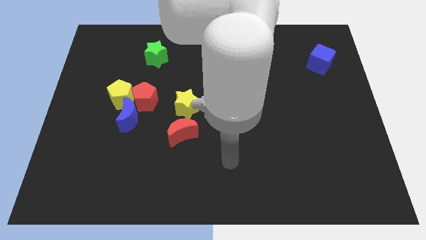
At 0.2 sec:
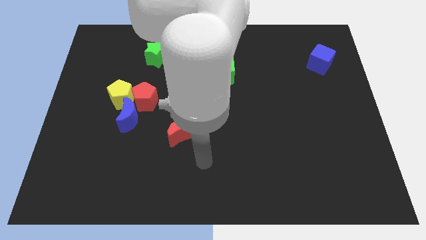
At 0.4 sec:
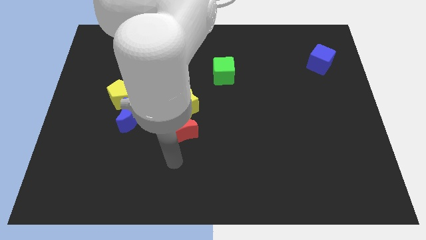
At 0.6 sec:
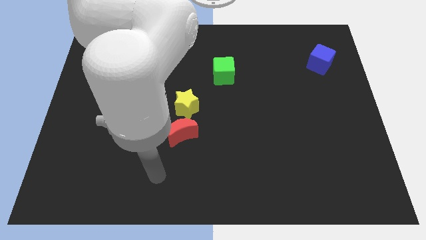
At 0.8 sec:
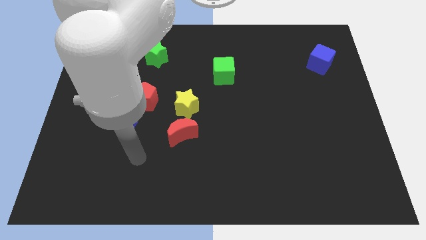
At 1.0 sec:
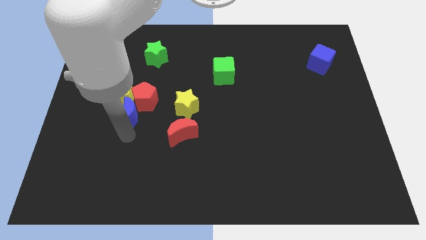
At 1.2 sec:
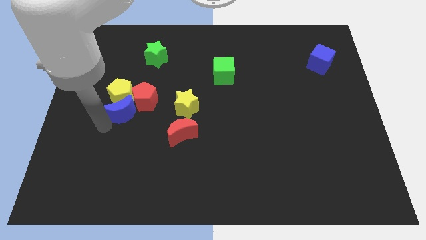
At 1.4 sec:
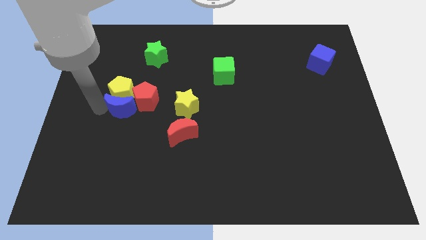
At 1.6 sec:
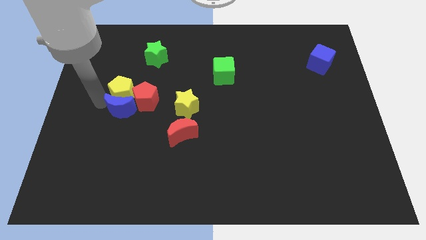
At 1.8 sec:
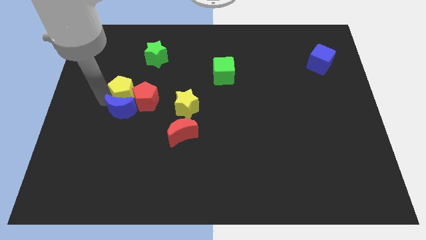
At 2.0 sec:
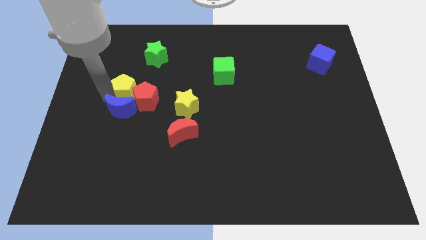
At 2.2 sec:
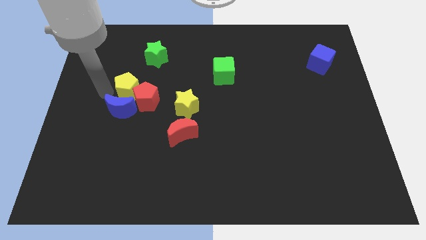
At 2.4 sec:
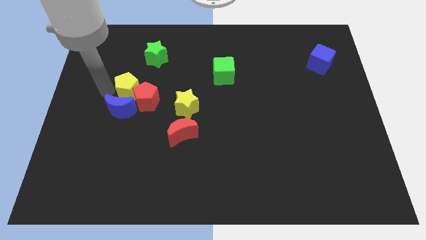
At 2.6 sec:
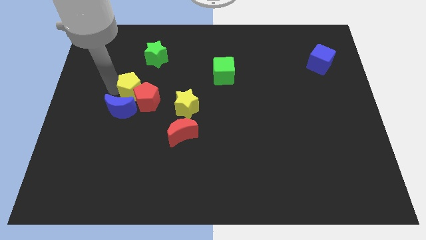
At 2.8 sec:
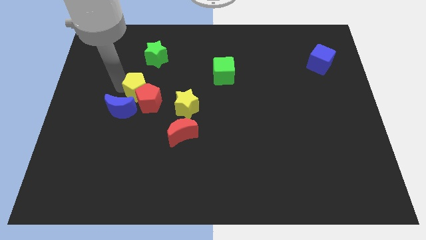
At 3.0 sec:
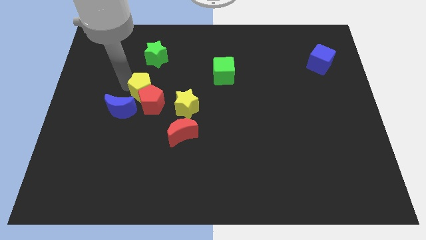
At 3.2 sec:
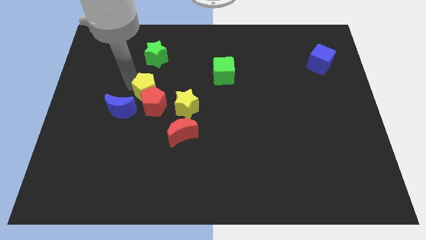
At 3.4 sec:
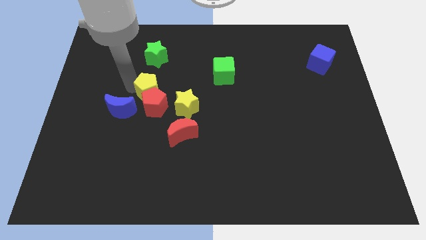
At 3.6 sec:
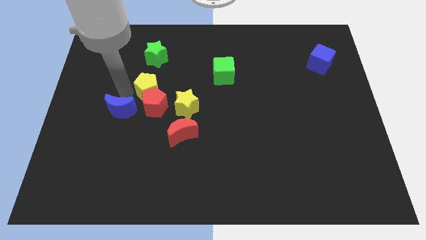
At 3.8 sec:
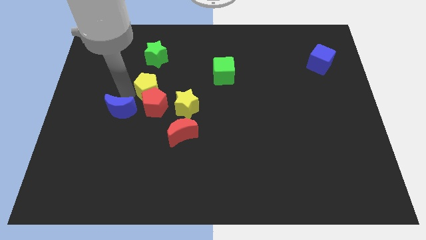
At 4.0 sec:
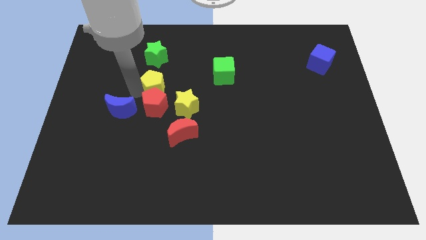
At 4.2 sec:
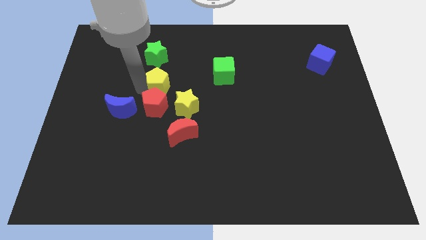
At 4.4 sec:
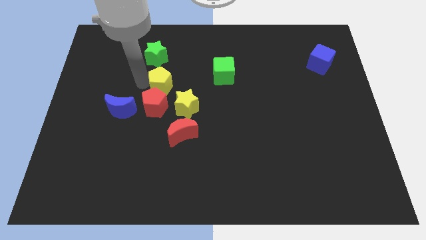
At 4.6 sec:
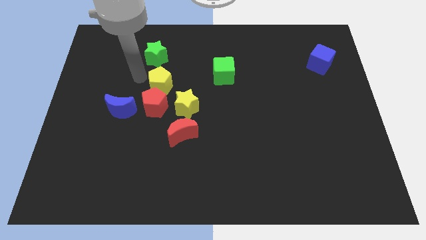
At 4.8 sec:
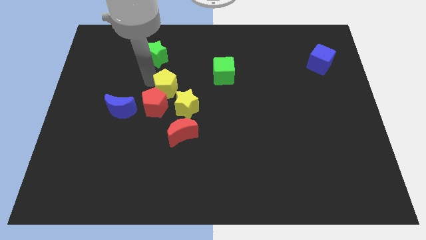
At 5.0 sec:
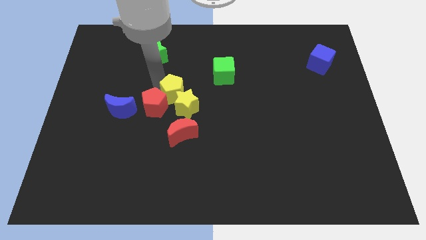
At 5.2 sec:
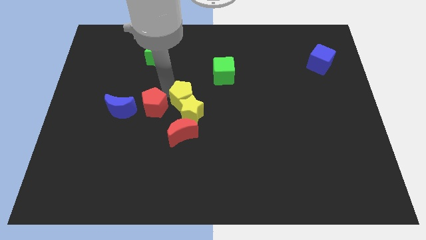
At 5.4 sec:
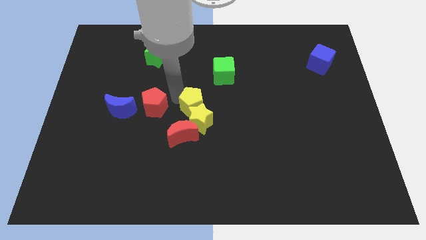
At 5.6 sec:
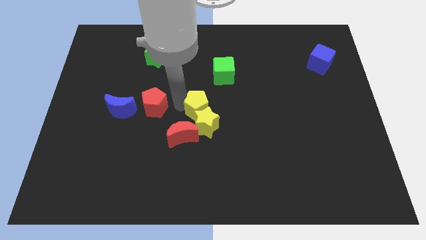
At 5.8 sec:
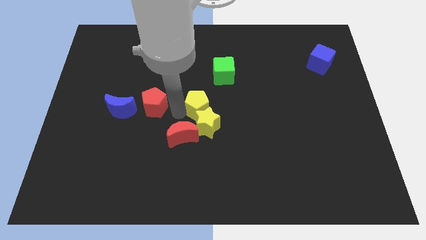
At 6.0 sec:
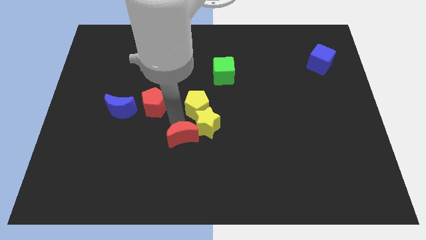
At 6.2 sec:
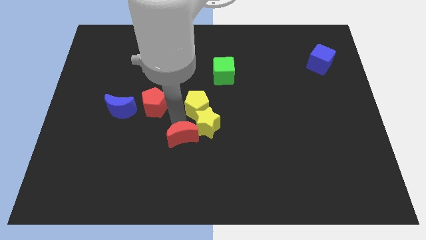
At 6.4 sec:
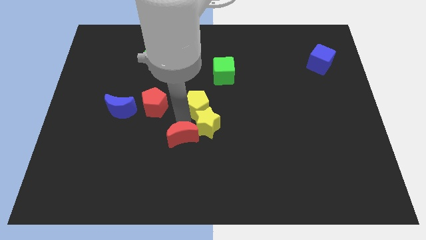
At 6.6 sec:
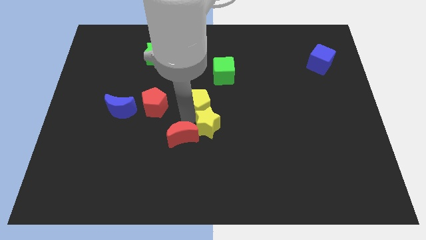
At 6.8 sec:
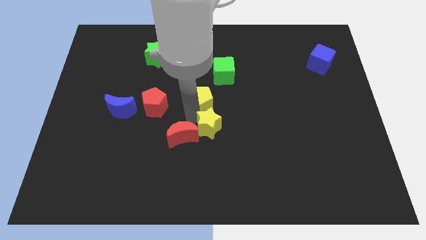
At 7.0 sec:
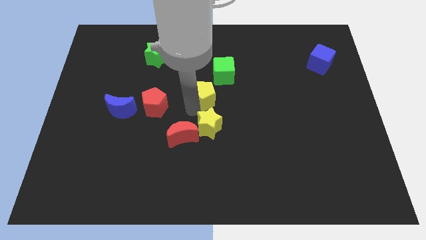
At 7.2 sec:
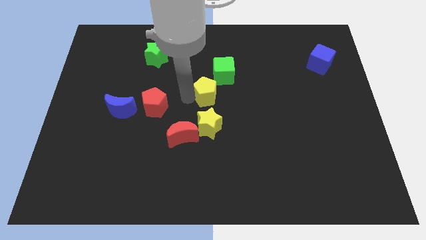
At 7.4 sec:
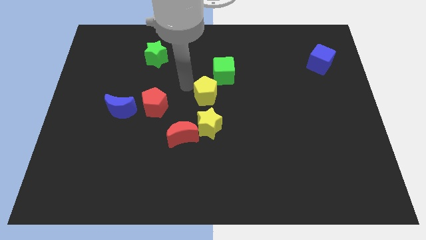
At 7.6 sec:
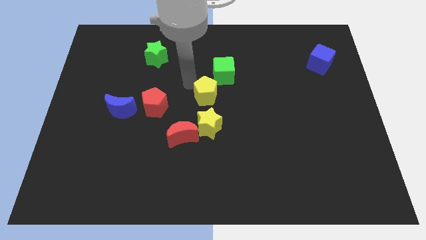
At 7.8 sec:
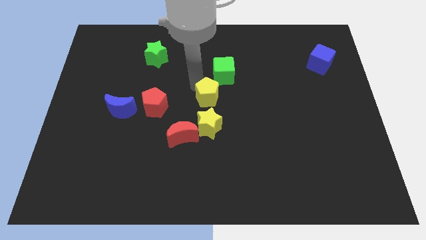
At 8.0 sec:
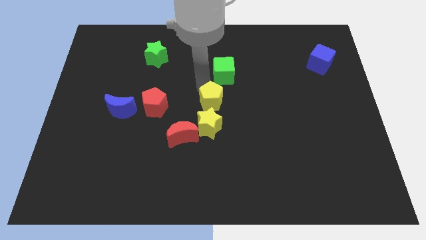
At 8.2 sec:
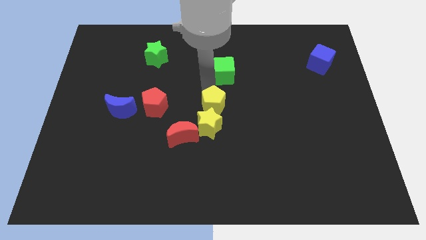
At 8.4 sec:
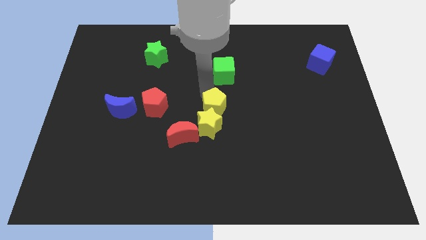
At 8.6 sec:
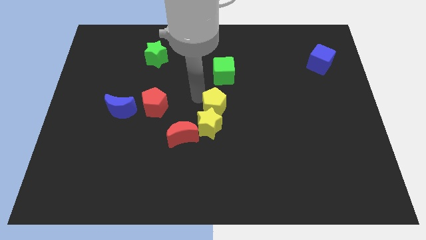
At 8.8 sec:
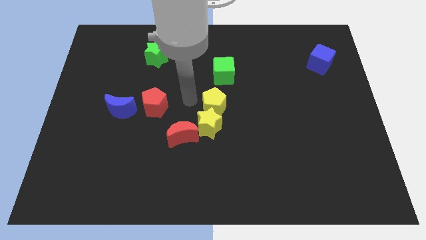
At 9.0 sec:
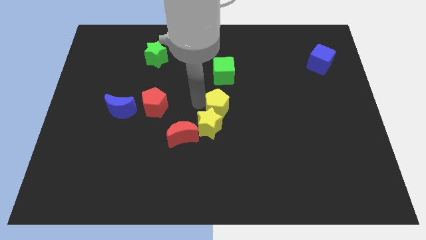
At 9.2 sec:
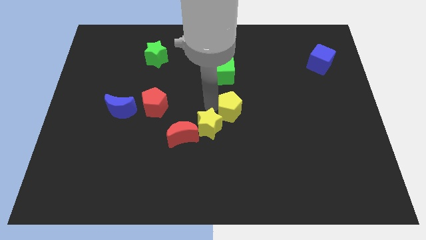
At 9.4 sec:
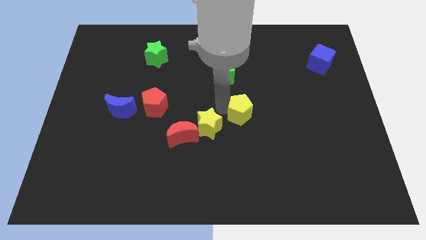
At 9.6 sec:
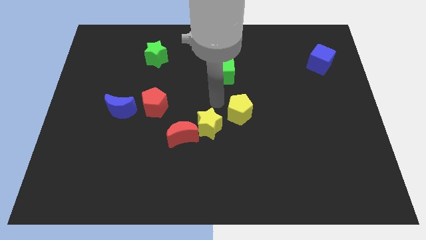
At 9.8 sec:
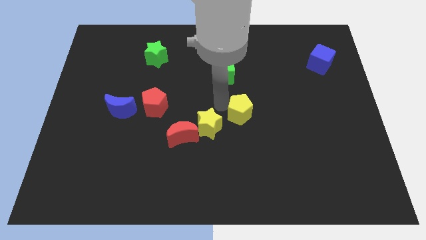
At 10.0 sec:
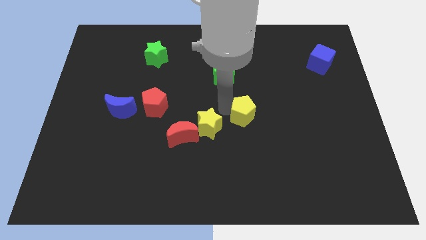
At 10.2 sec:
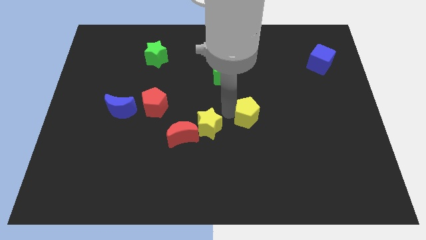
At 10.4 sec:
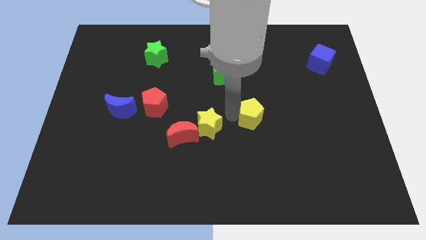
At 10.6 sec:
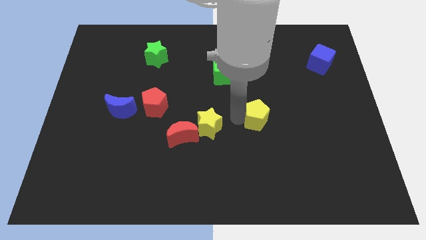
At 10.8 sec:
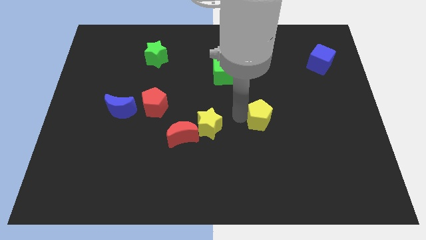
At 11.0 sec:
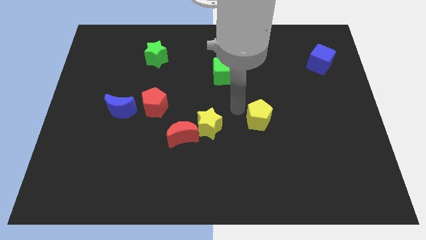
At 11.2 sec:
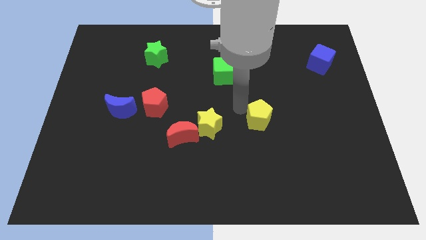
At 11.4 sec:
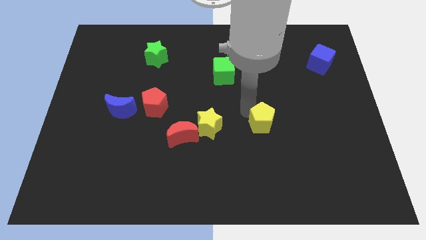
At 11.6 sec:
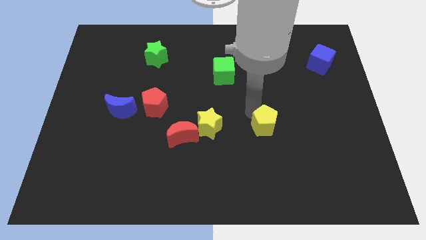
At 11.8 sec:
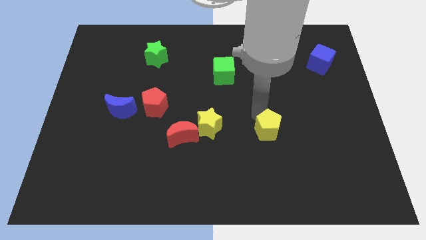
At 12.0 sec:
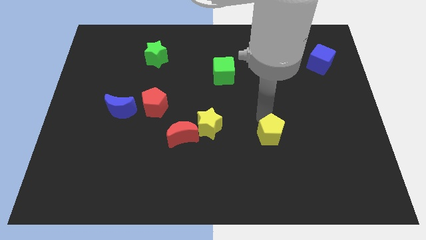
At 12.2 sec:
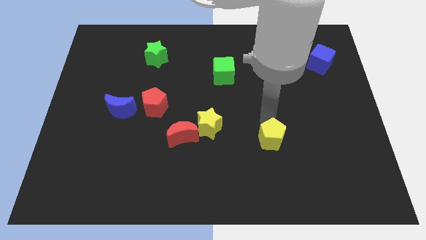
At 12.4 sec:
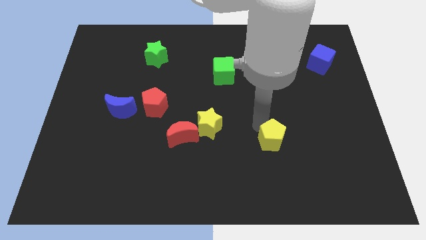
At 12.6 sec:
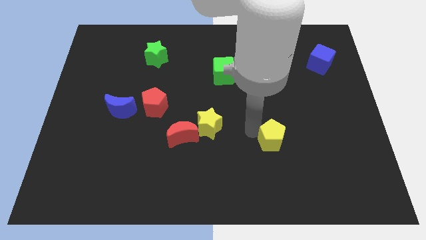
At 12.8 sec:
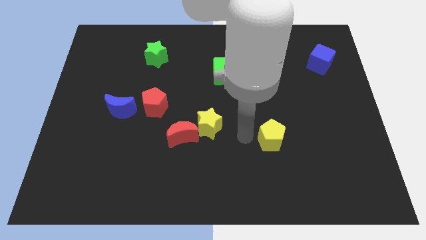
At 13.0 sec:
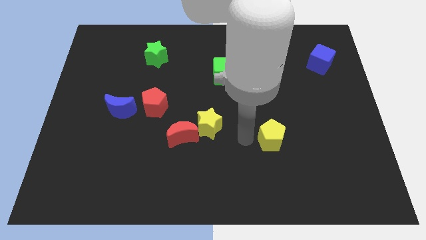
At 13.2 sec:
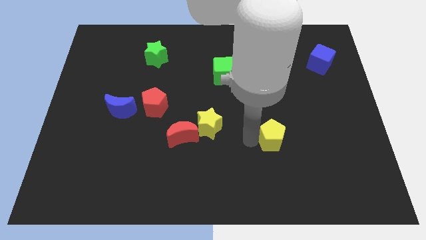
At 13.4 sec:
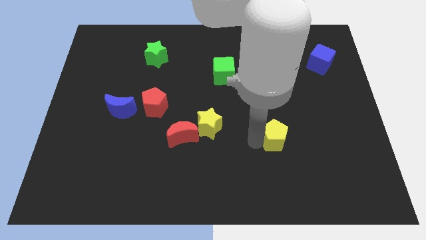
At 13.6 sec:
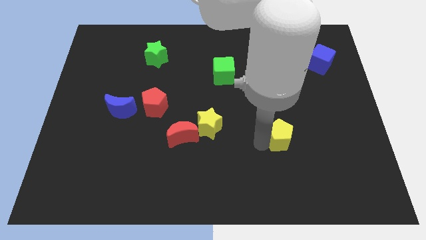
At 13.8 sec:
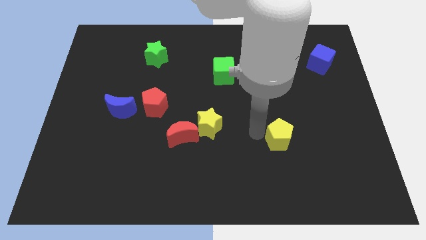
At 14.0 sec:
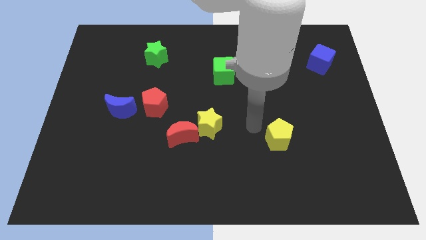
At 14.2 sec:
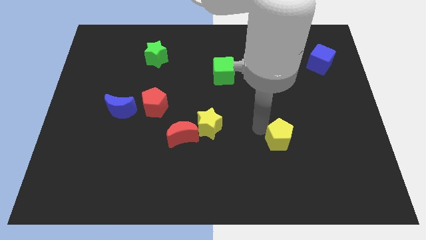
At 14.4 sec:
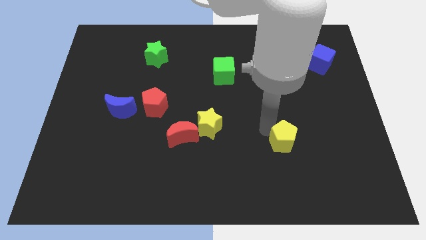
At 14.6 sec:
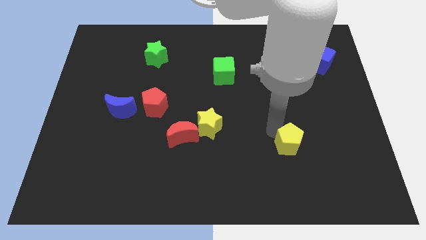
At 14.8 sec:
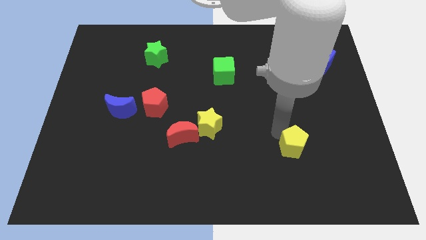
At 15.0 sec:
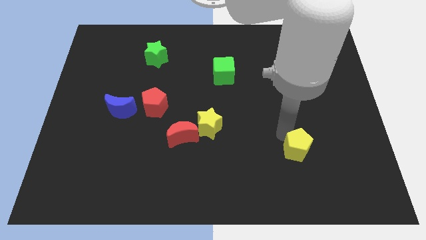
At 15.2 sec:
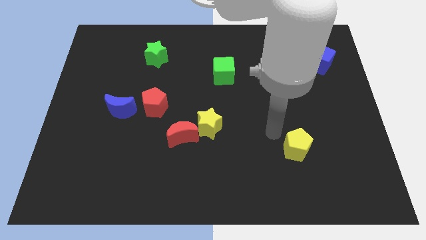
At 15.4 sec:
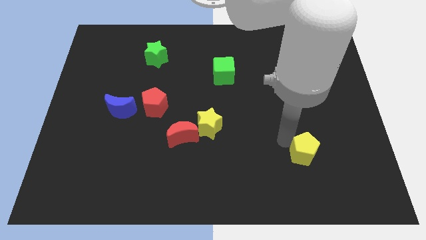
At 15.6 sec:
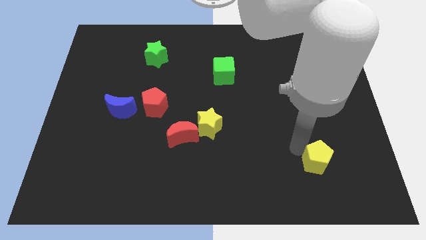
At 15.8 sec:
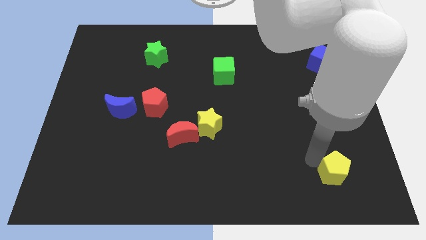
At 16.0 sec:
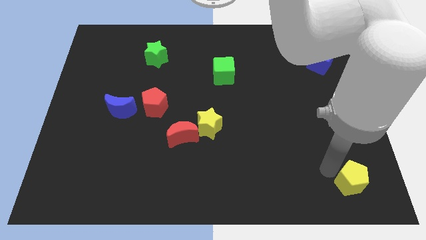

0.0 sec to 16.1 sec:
push the yellow pentagon to the bottom right
